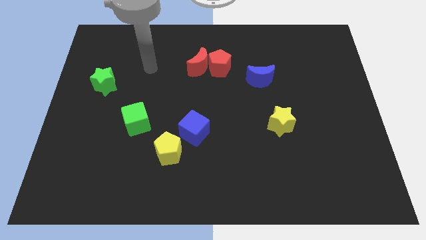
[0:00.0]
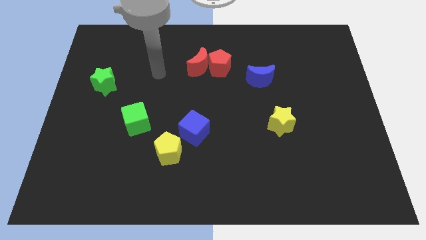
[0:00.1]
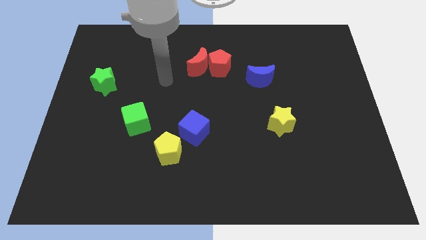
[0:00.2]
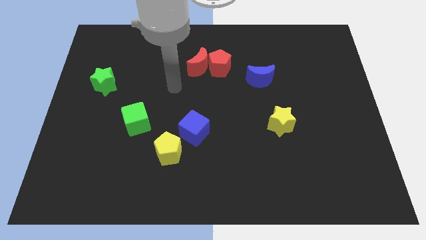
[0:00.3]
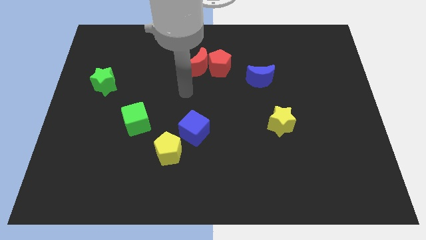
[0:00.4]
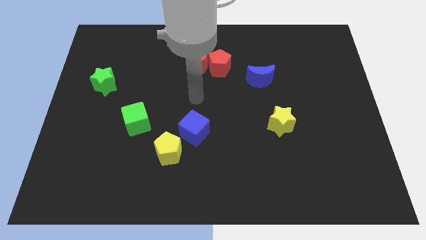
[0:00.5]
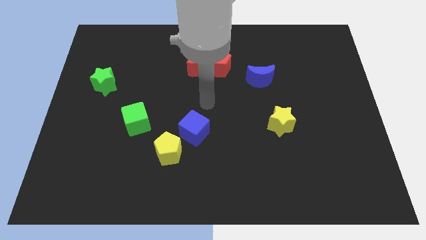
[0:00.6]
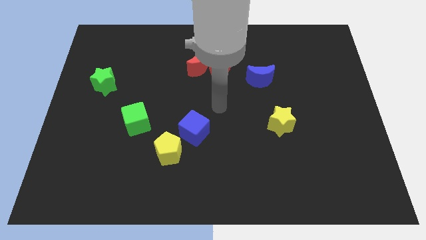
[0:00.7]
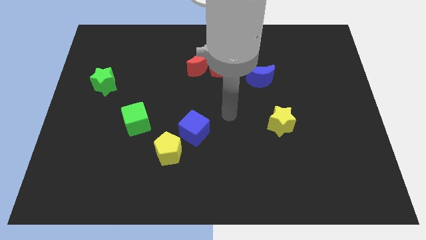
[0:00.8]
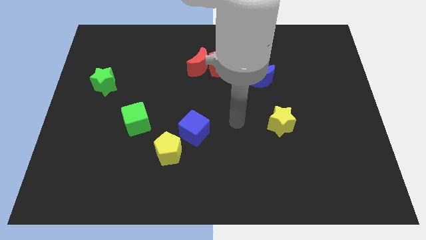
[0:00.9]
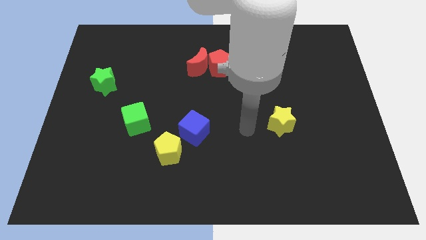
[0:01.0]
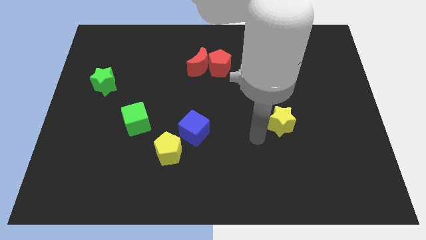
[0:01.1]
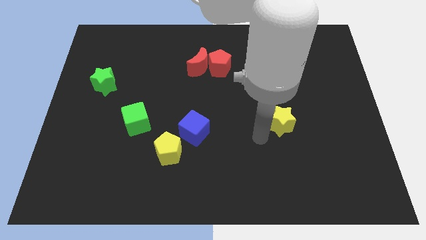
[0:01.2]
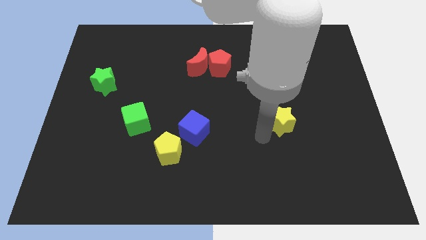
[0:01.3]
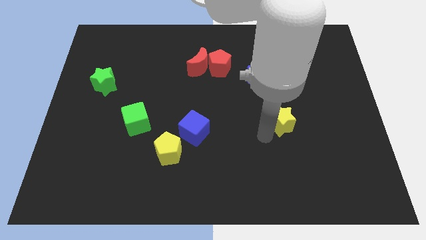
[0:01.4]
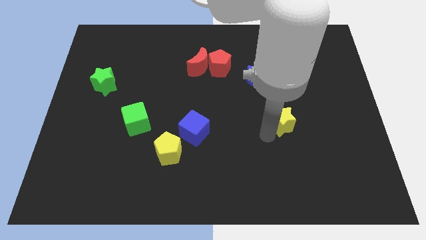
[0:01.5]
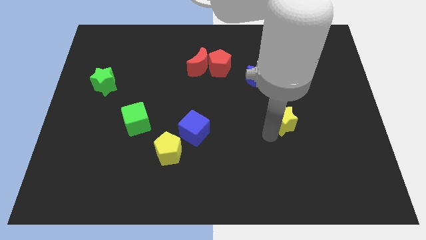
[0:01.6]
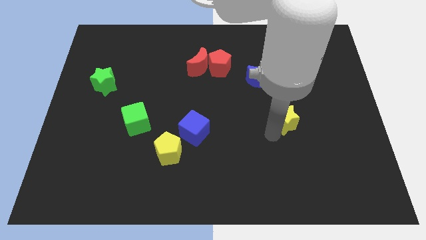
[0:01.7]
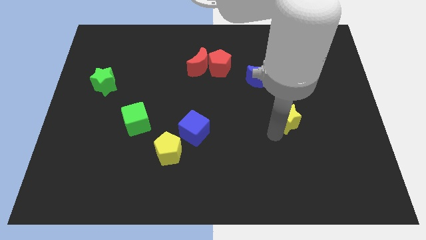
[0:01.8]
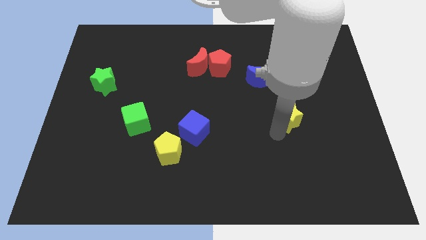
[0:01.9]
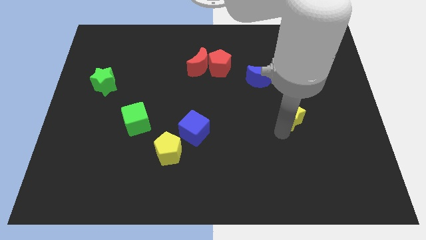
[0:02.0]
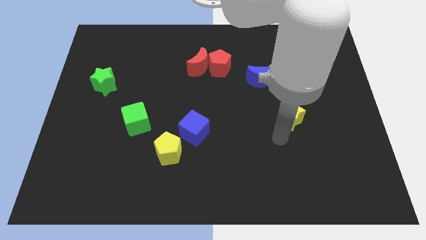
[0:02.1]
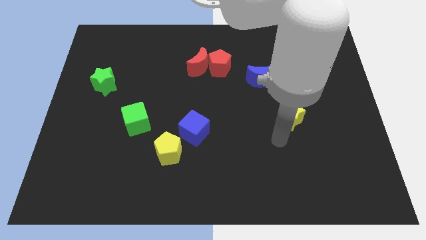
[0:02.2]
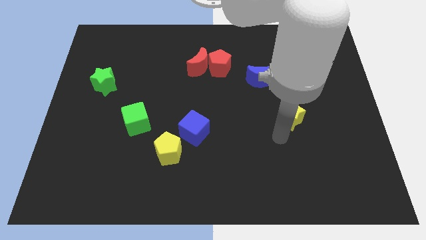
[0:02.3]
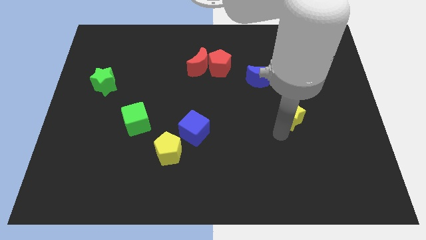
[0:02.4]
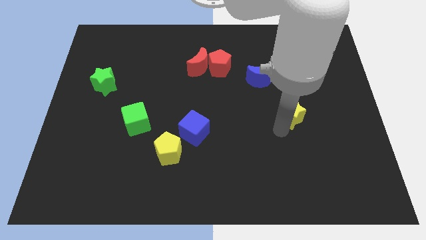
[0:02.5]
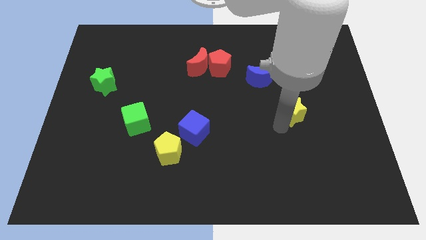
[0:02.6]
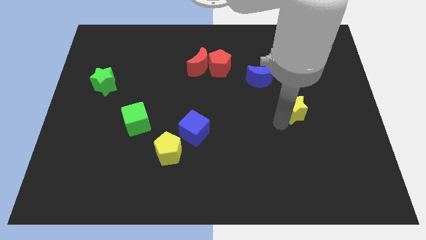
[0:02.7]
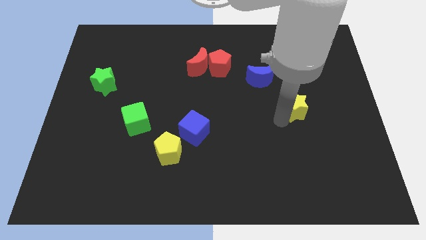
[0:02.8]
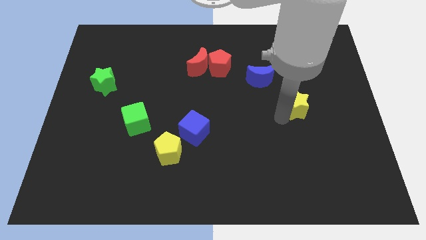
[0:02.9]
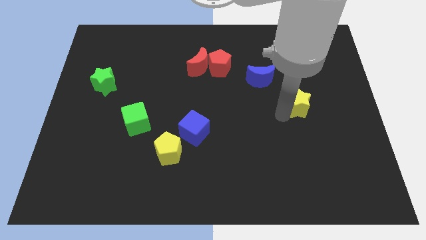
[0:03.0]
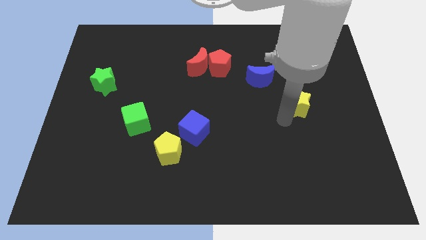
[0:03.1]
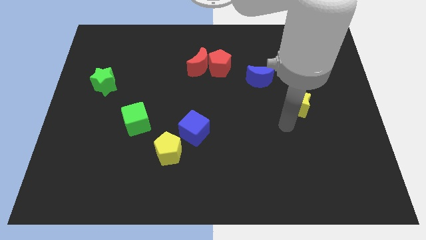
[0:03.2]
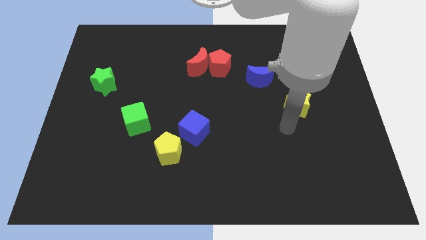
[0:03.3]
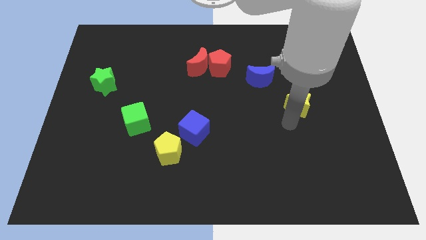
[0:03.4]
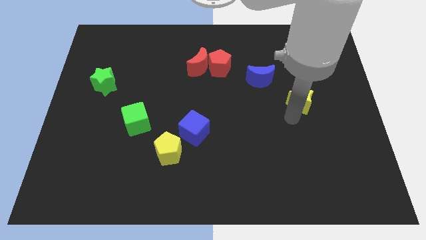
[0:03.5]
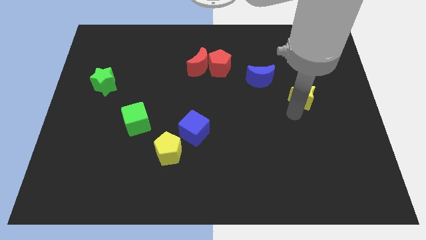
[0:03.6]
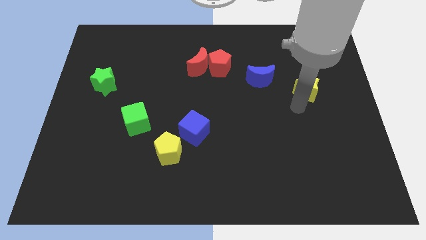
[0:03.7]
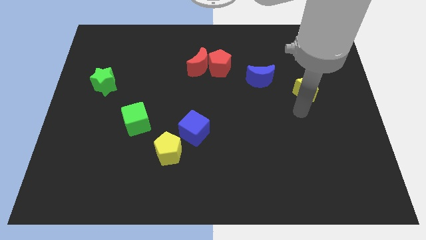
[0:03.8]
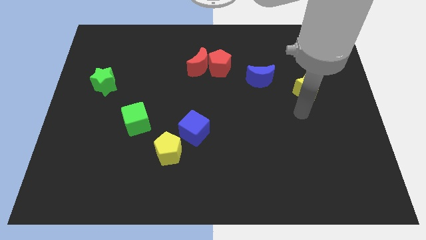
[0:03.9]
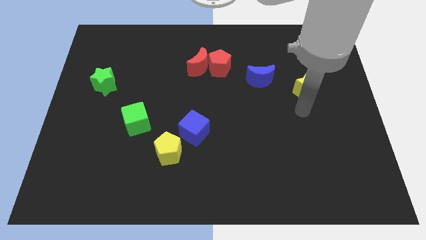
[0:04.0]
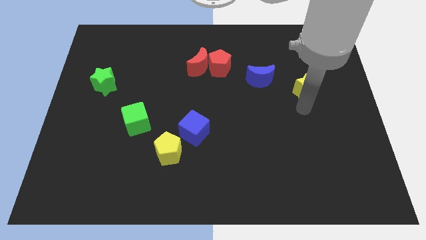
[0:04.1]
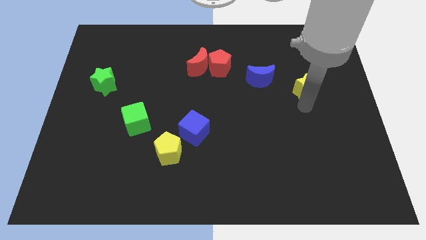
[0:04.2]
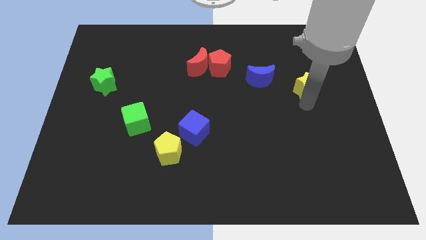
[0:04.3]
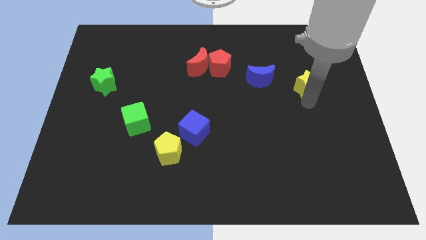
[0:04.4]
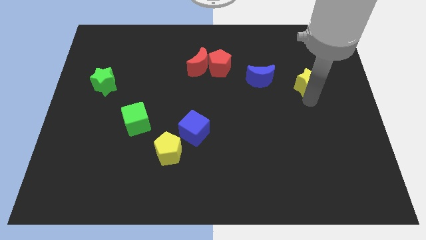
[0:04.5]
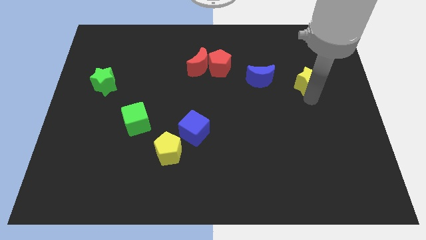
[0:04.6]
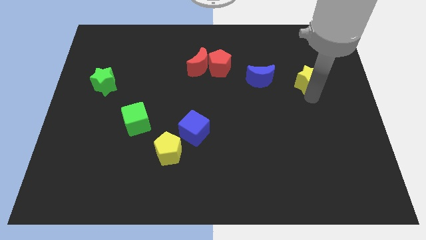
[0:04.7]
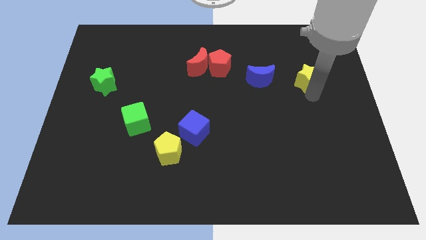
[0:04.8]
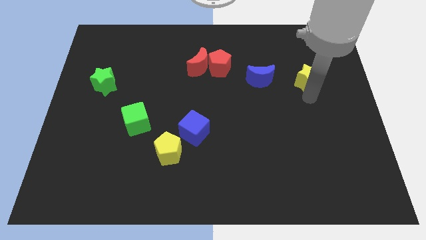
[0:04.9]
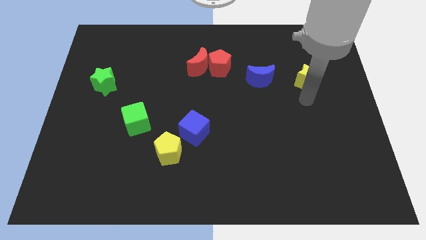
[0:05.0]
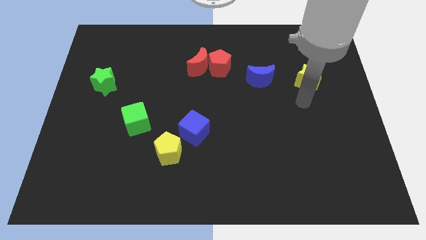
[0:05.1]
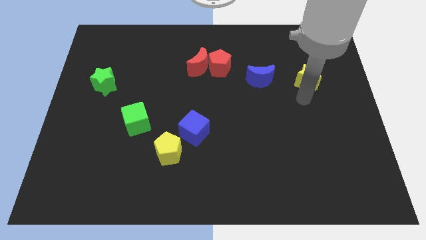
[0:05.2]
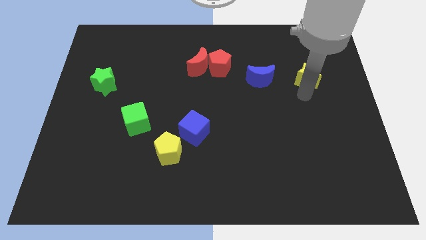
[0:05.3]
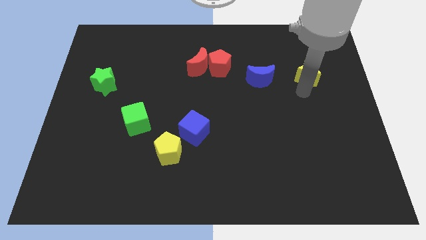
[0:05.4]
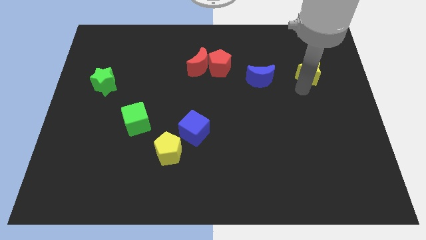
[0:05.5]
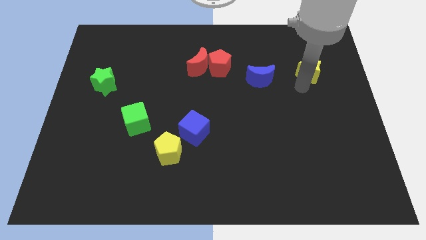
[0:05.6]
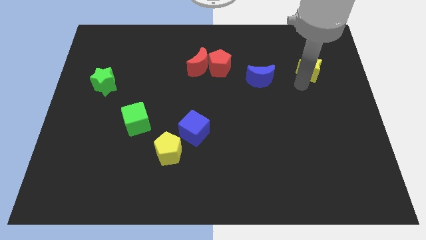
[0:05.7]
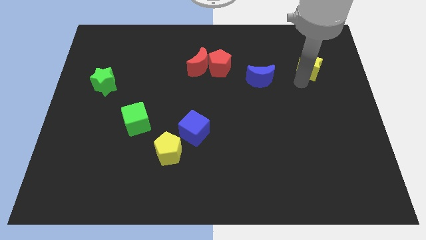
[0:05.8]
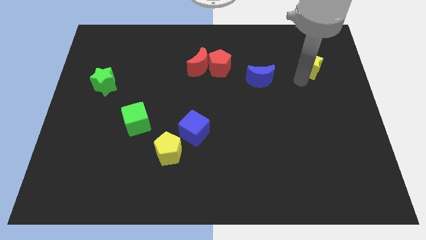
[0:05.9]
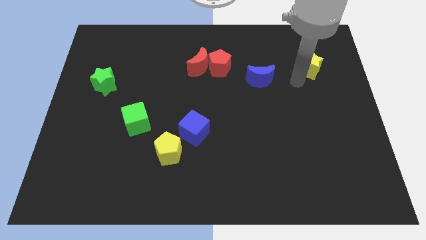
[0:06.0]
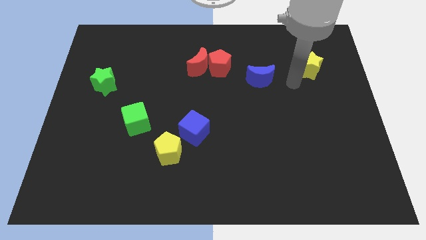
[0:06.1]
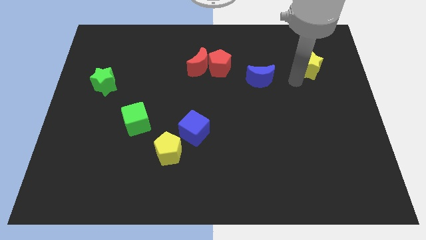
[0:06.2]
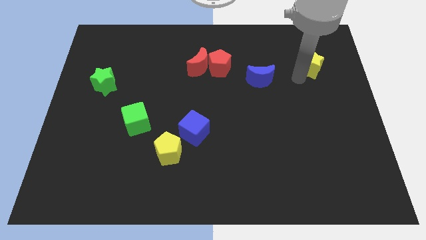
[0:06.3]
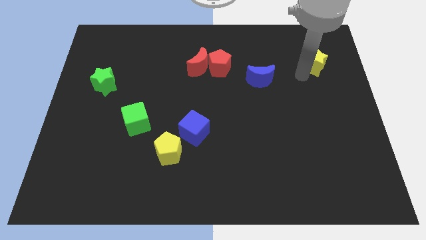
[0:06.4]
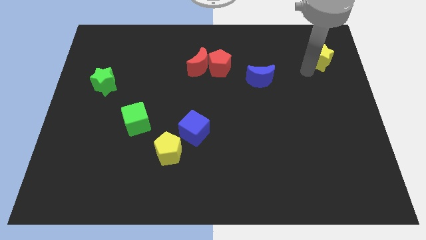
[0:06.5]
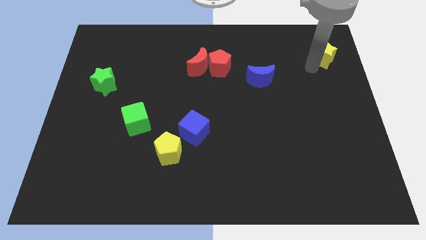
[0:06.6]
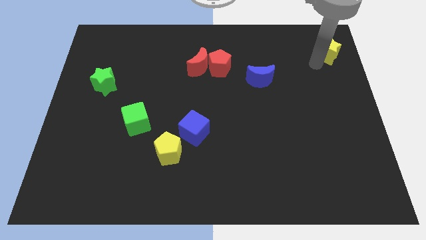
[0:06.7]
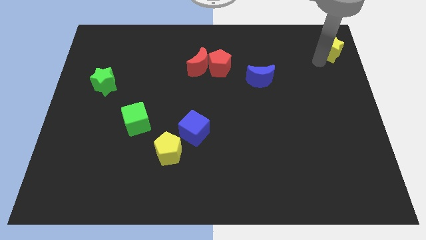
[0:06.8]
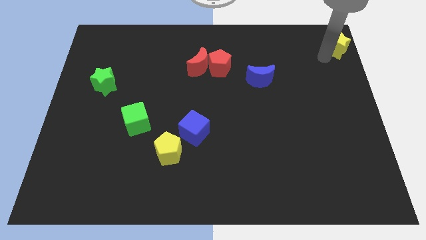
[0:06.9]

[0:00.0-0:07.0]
put the yellow star to the top right of the board

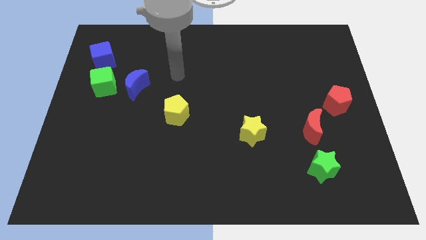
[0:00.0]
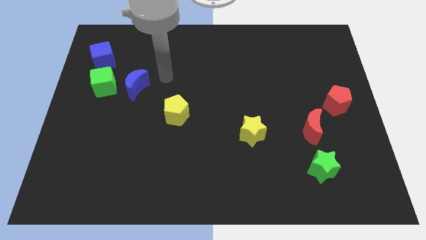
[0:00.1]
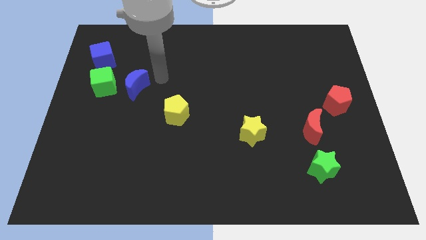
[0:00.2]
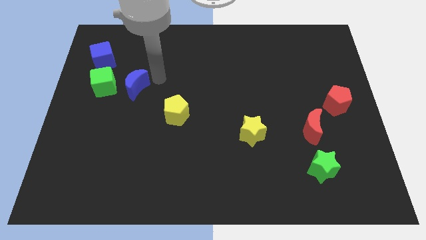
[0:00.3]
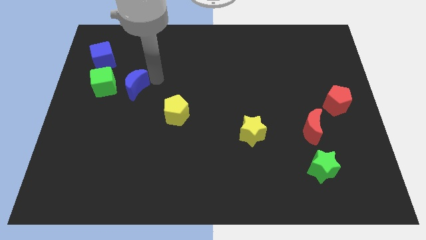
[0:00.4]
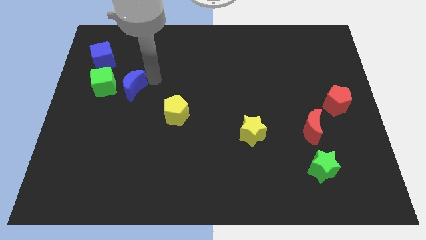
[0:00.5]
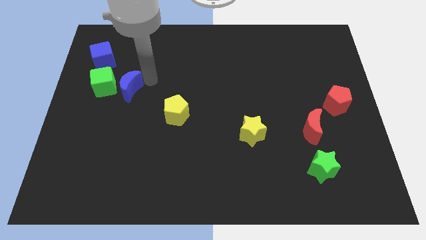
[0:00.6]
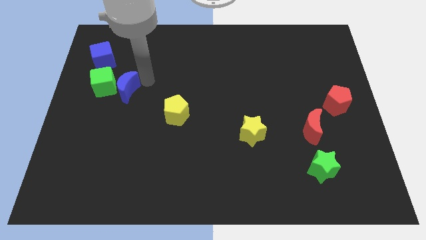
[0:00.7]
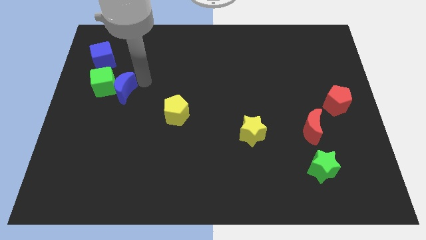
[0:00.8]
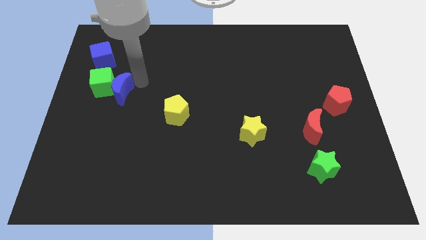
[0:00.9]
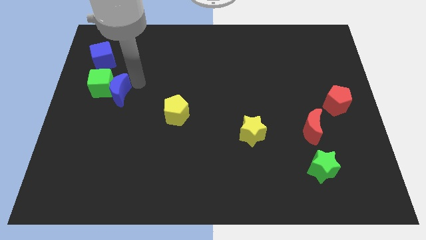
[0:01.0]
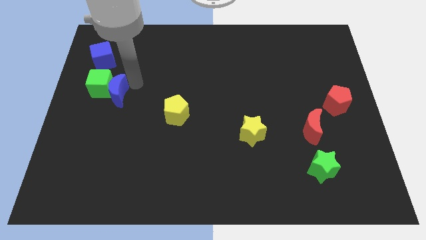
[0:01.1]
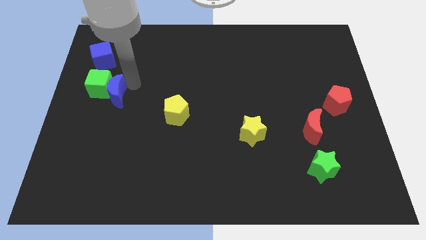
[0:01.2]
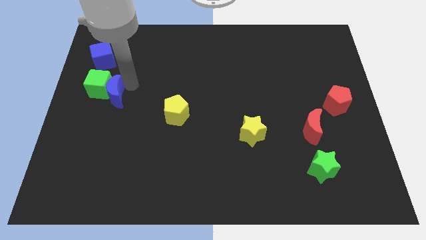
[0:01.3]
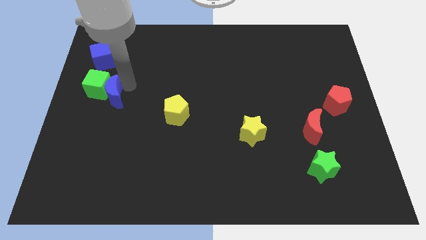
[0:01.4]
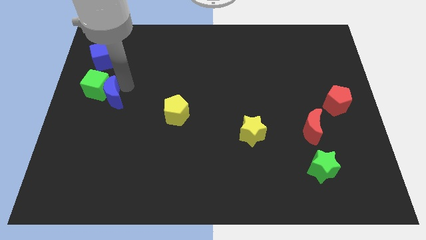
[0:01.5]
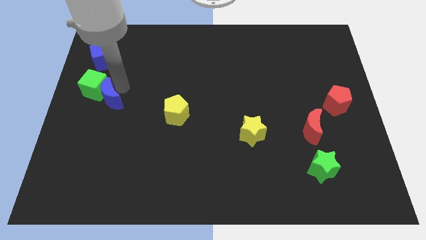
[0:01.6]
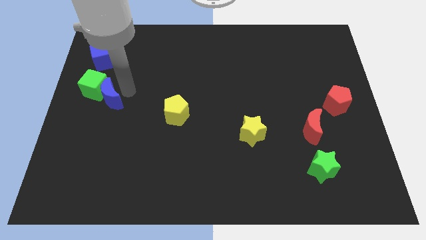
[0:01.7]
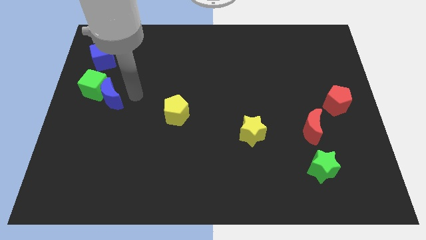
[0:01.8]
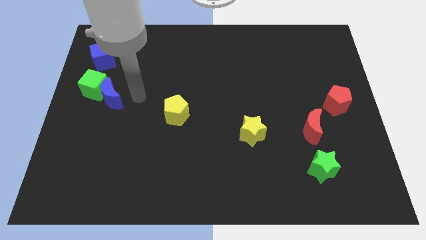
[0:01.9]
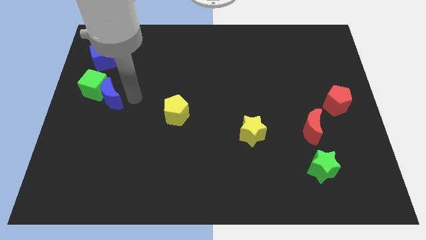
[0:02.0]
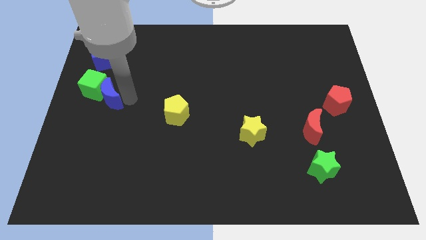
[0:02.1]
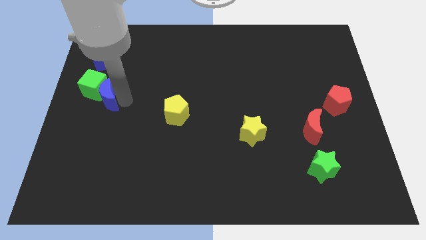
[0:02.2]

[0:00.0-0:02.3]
move the blue moon to the left side
